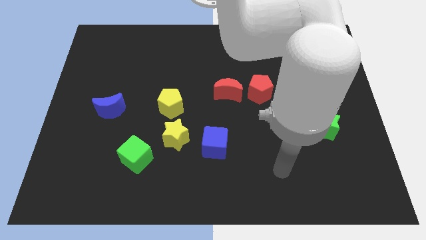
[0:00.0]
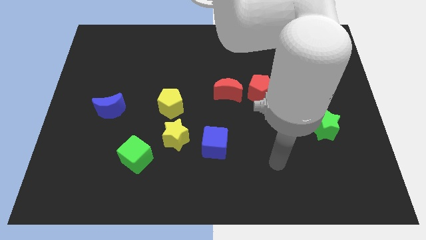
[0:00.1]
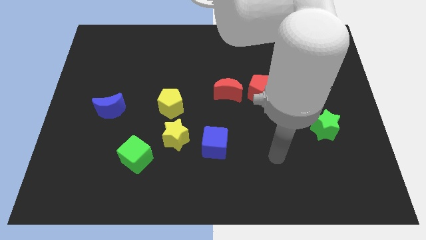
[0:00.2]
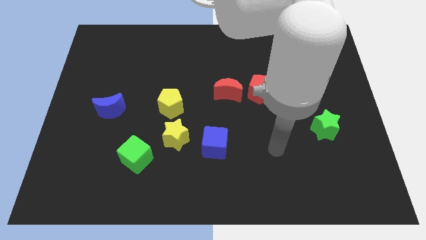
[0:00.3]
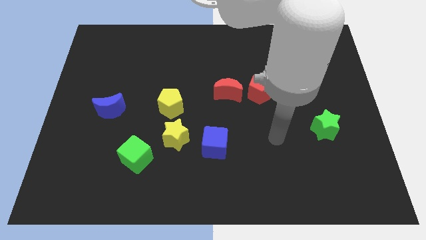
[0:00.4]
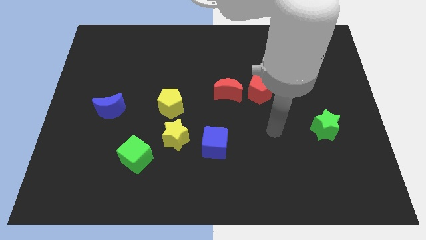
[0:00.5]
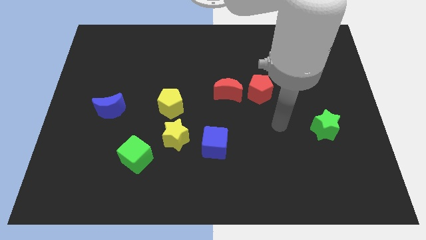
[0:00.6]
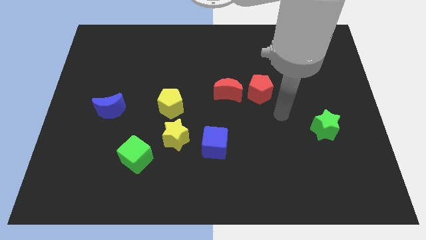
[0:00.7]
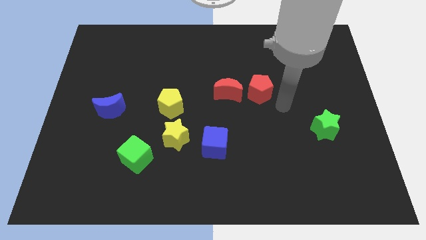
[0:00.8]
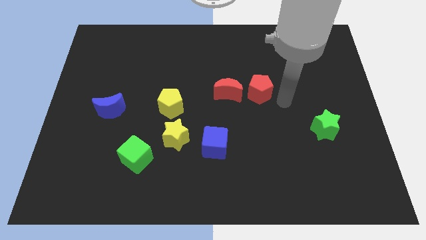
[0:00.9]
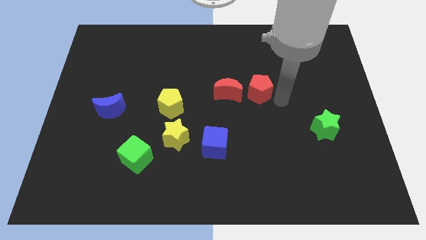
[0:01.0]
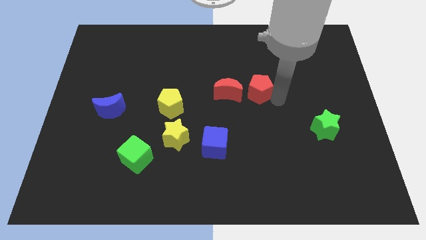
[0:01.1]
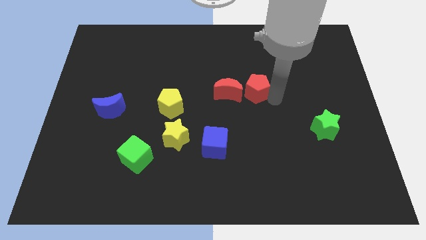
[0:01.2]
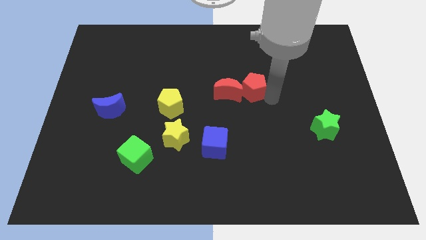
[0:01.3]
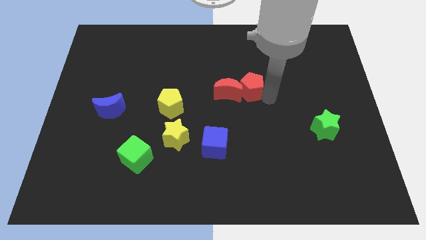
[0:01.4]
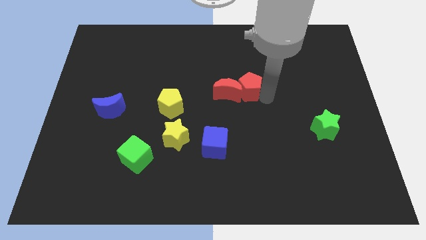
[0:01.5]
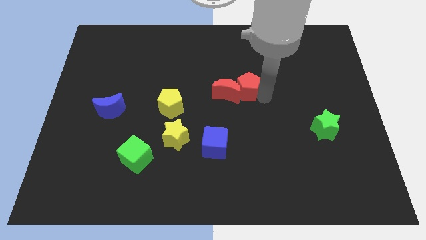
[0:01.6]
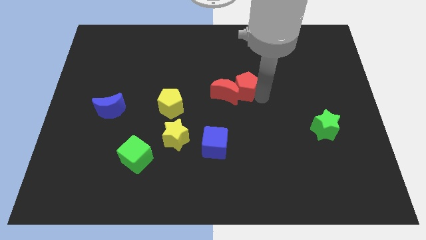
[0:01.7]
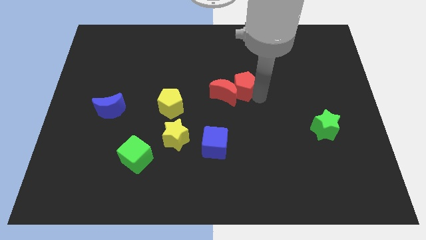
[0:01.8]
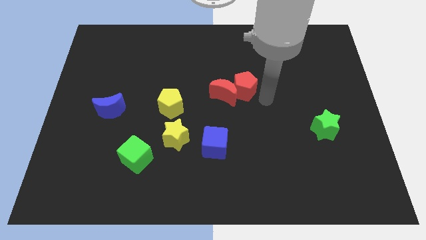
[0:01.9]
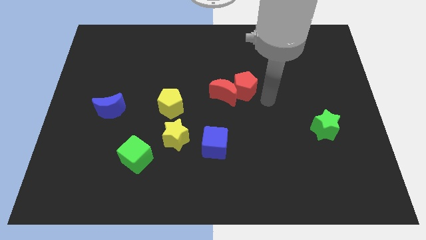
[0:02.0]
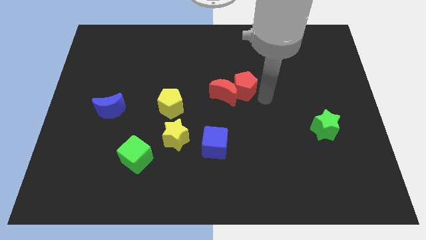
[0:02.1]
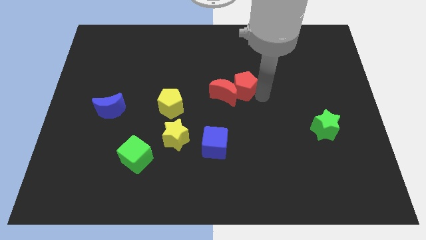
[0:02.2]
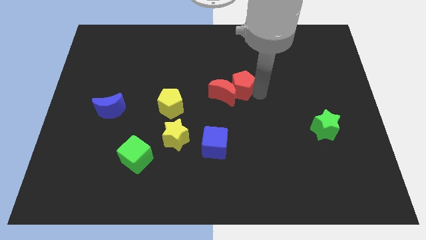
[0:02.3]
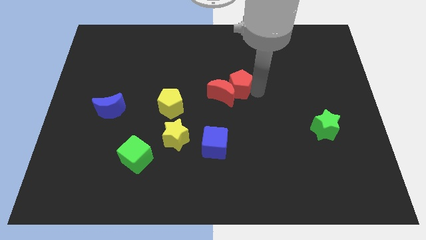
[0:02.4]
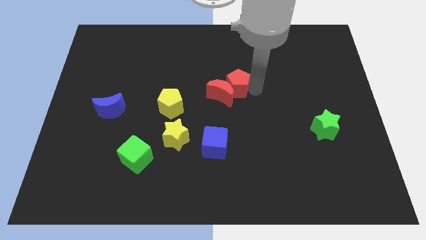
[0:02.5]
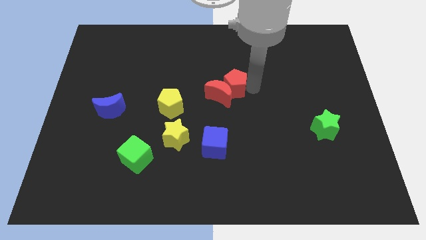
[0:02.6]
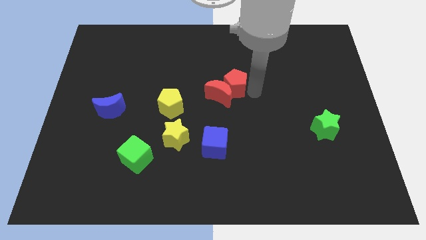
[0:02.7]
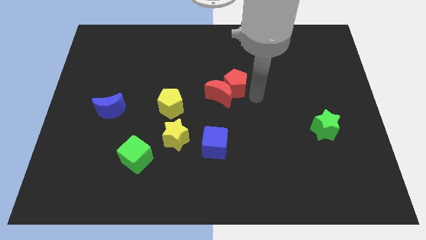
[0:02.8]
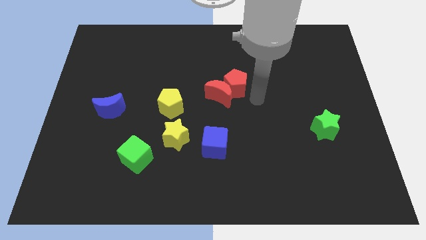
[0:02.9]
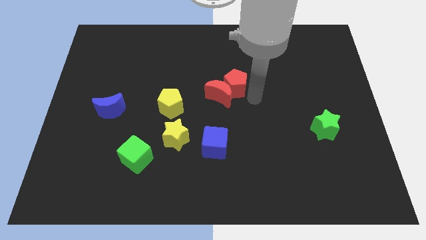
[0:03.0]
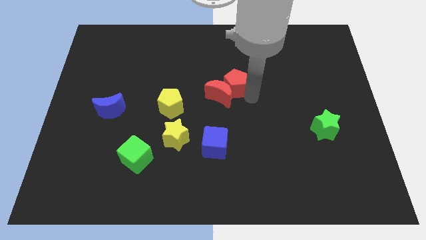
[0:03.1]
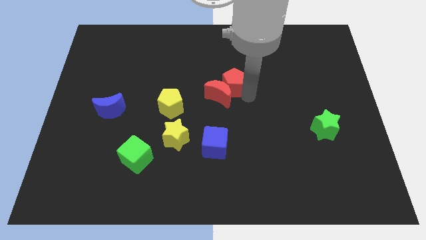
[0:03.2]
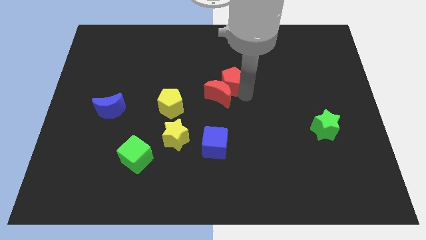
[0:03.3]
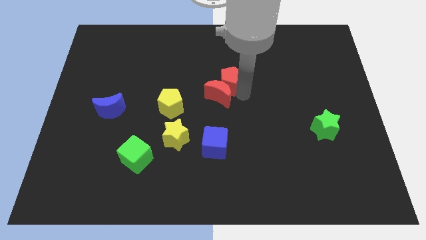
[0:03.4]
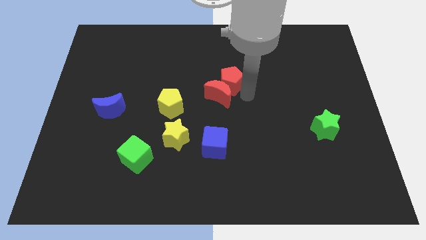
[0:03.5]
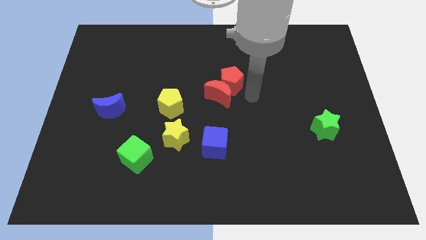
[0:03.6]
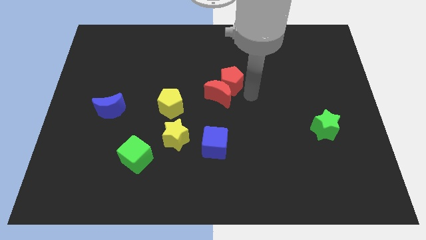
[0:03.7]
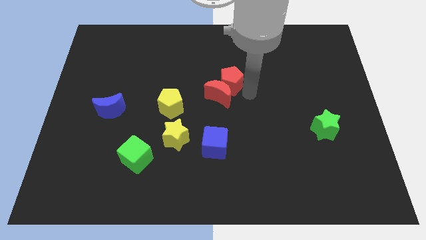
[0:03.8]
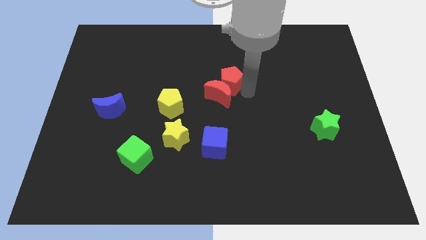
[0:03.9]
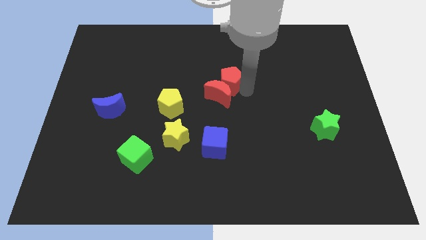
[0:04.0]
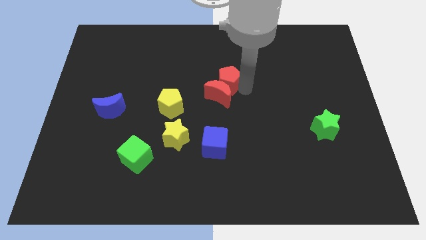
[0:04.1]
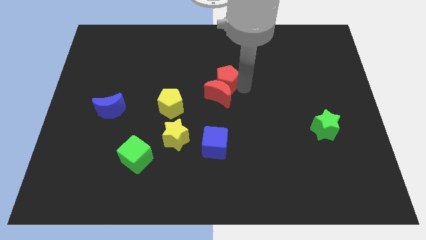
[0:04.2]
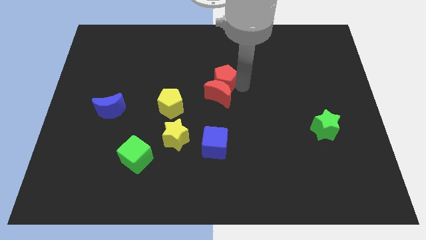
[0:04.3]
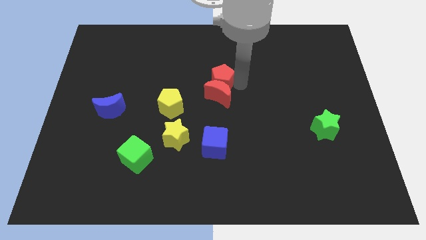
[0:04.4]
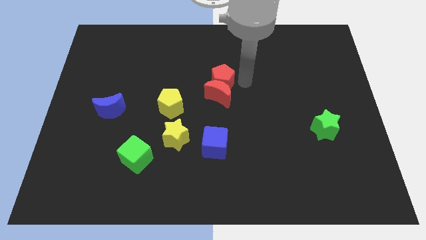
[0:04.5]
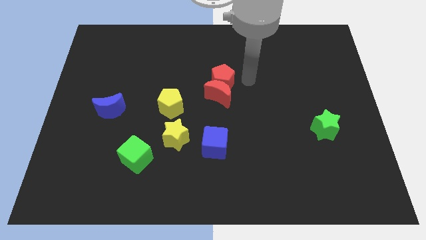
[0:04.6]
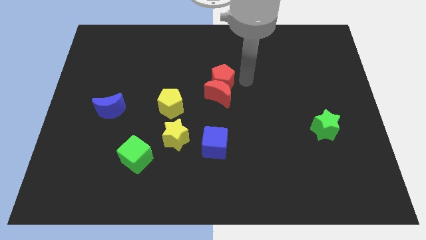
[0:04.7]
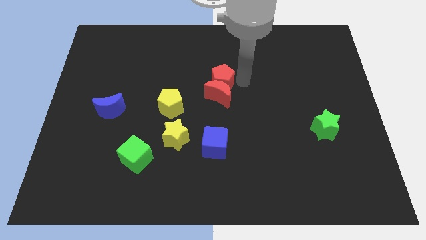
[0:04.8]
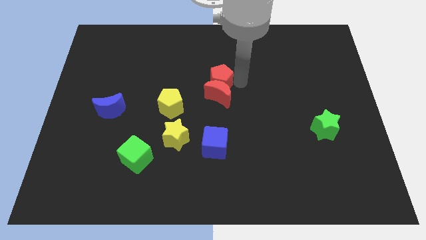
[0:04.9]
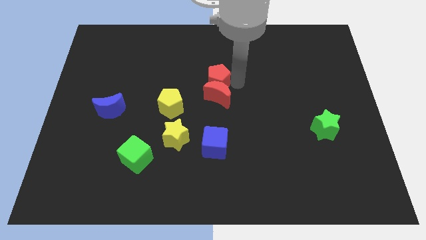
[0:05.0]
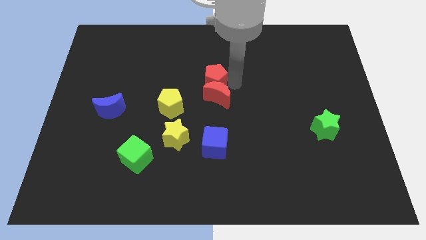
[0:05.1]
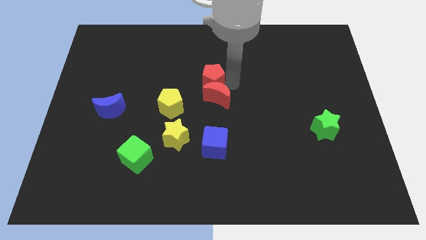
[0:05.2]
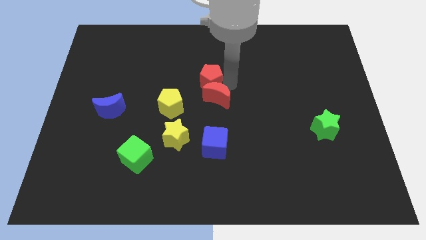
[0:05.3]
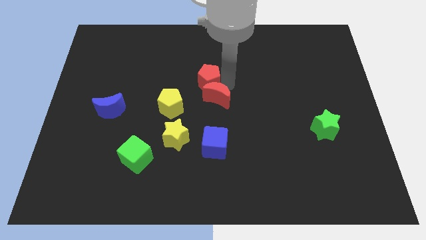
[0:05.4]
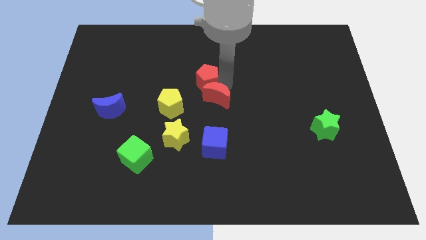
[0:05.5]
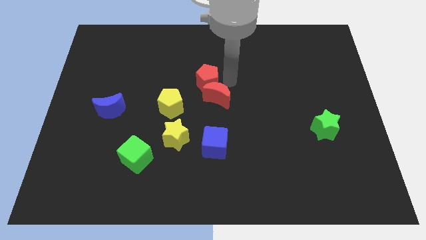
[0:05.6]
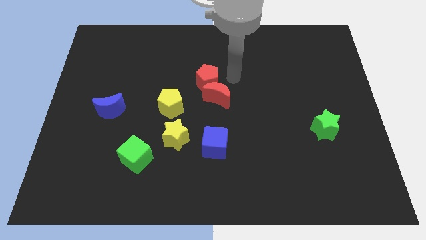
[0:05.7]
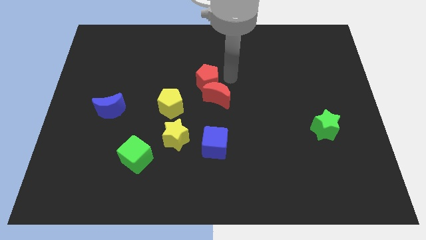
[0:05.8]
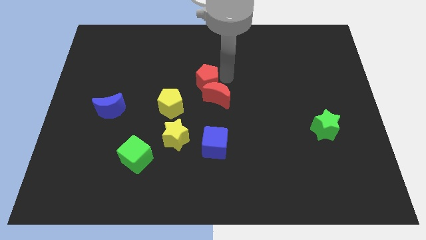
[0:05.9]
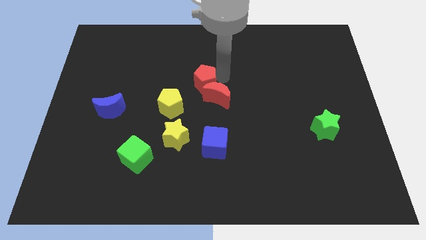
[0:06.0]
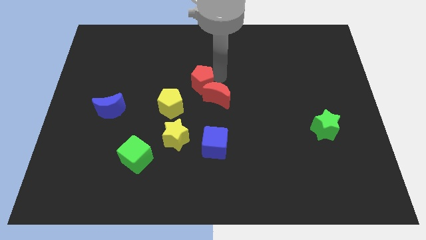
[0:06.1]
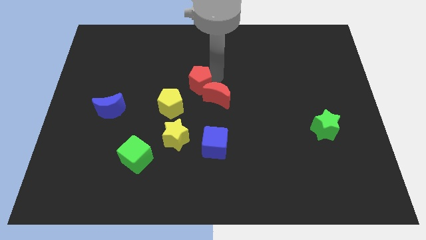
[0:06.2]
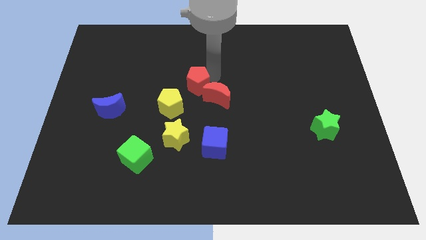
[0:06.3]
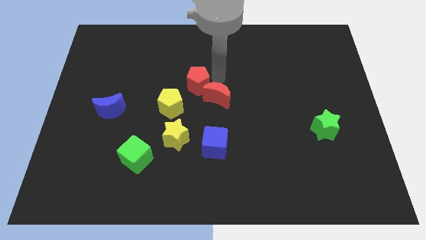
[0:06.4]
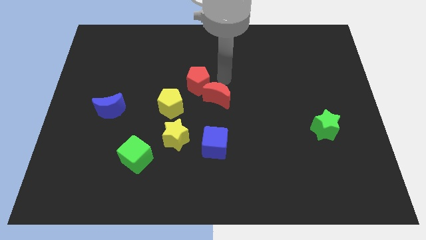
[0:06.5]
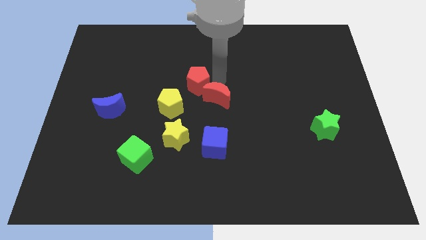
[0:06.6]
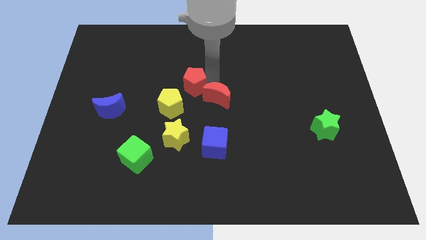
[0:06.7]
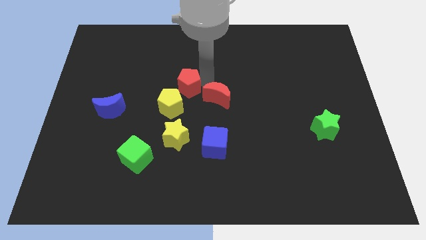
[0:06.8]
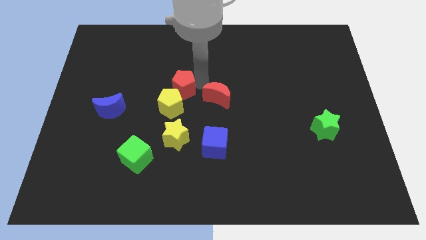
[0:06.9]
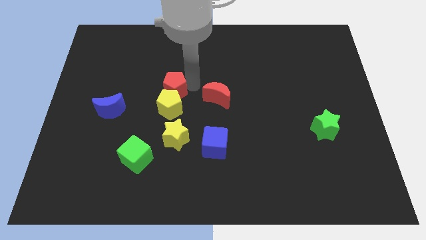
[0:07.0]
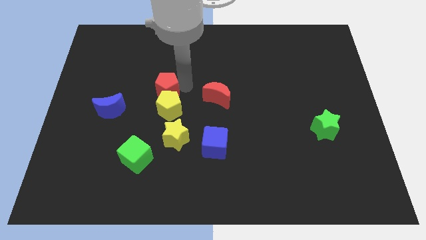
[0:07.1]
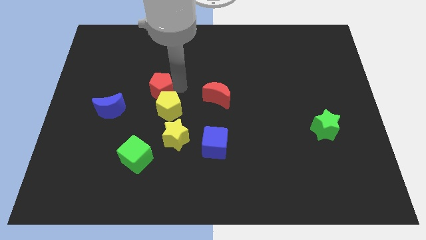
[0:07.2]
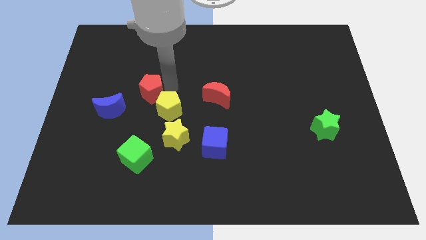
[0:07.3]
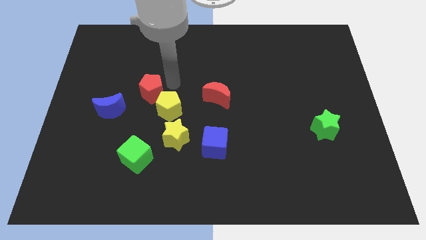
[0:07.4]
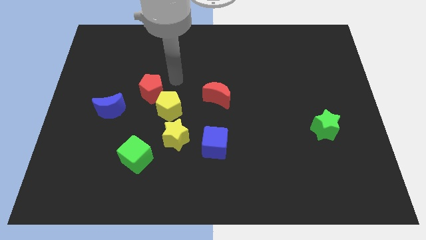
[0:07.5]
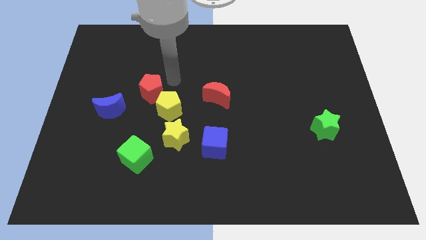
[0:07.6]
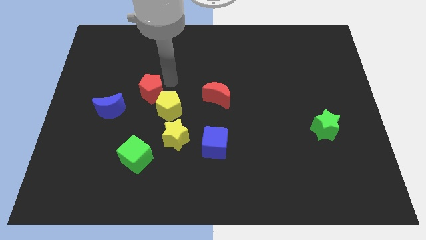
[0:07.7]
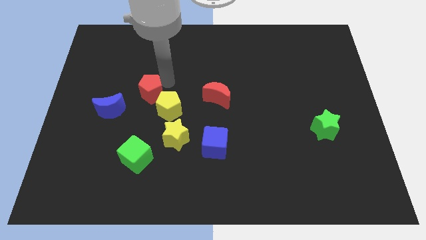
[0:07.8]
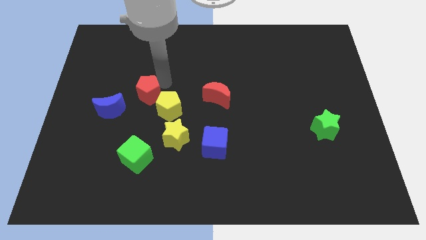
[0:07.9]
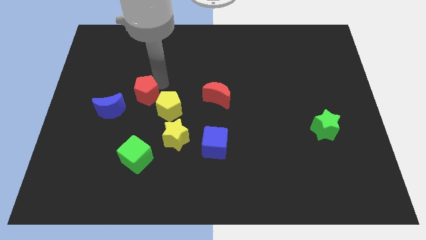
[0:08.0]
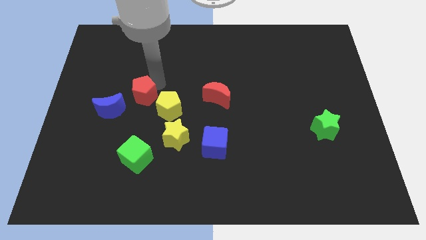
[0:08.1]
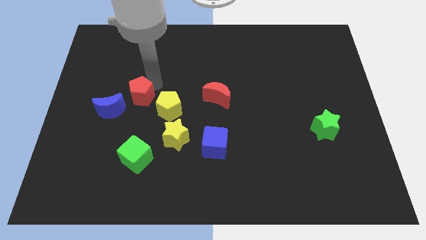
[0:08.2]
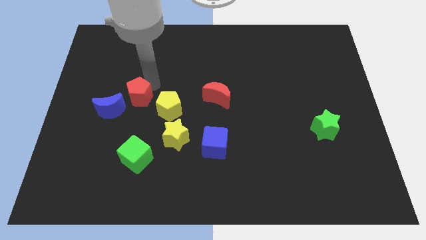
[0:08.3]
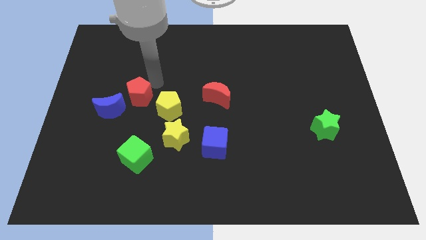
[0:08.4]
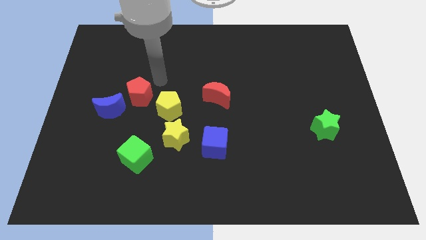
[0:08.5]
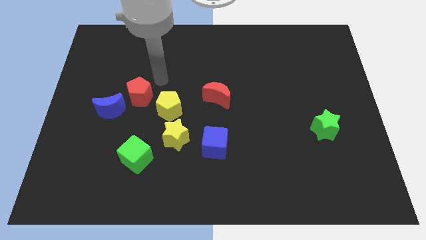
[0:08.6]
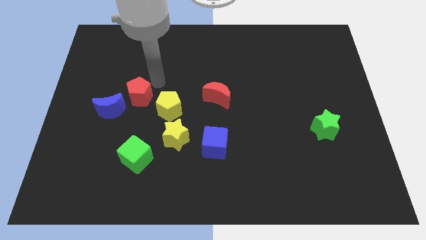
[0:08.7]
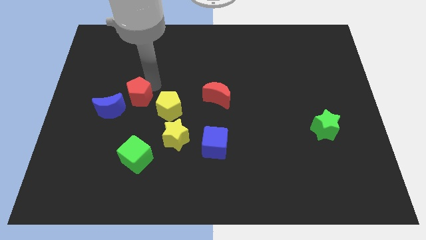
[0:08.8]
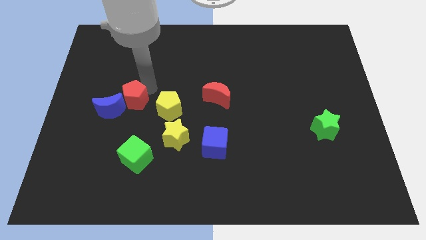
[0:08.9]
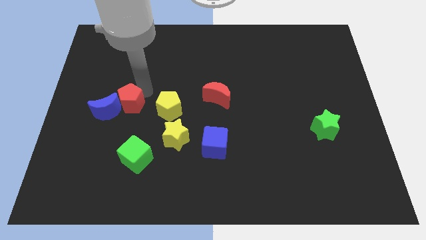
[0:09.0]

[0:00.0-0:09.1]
slide the red pentagon close to the blue moon
